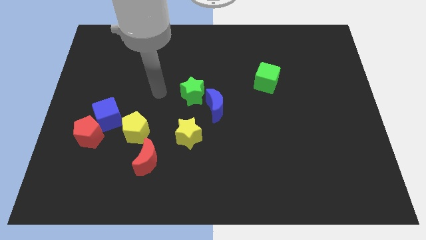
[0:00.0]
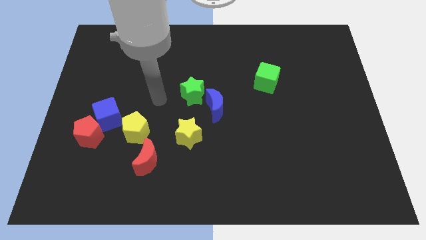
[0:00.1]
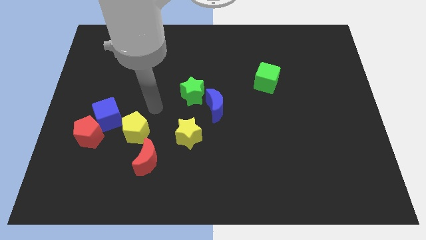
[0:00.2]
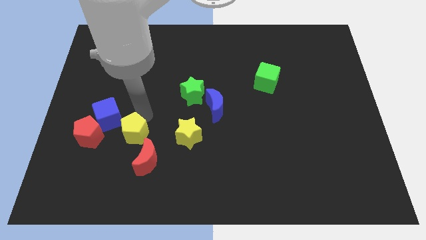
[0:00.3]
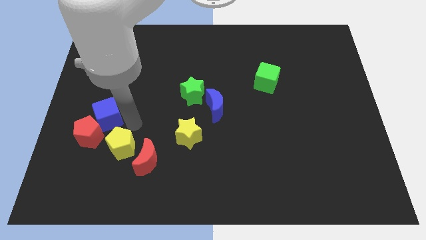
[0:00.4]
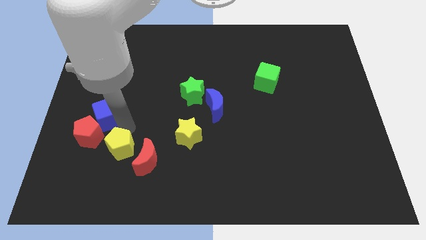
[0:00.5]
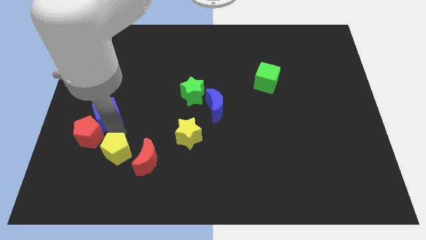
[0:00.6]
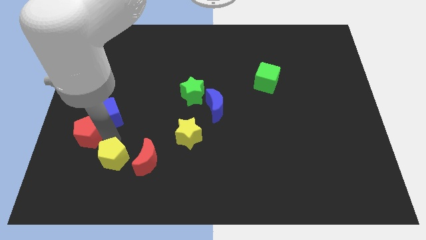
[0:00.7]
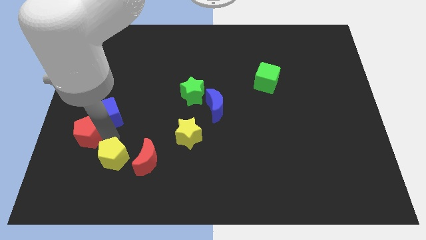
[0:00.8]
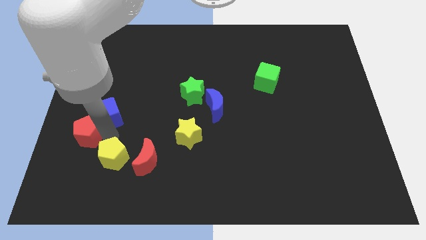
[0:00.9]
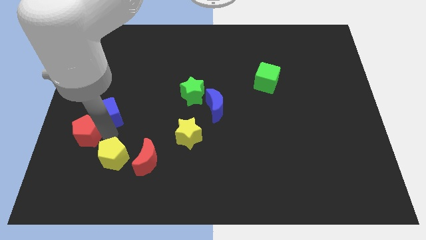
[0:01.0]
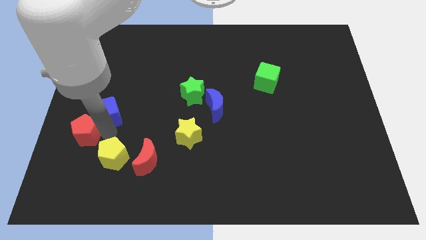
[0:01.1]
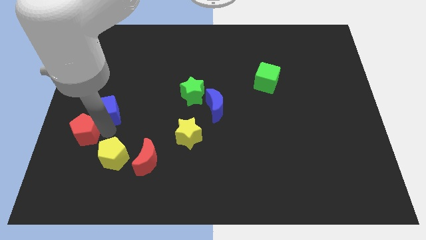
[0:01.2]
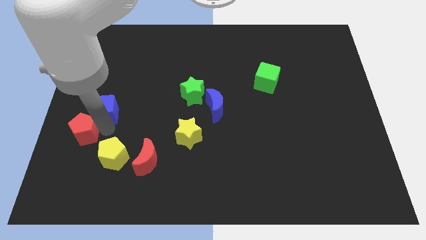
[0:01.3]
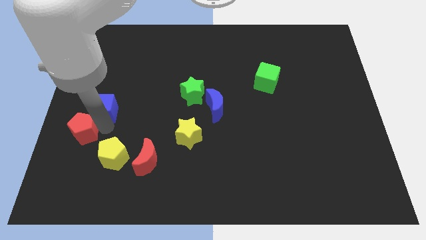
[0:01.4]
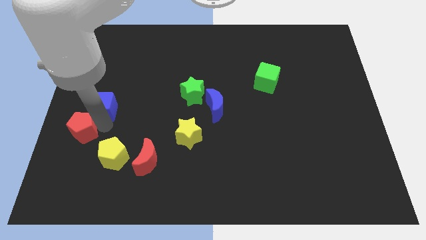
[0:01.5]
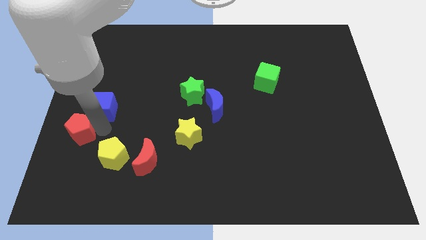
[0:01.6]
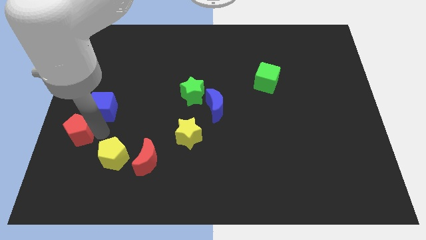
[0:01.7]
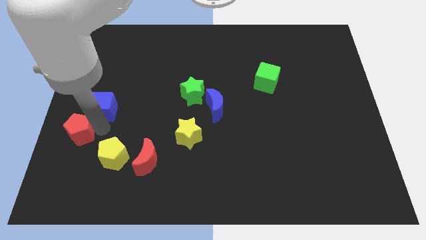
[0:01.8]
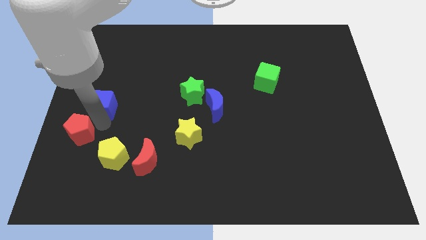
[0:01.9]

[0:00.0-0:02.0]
pull the blue cube apart from the red pentagon and yellow pentagon

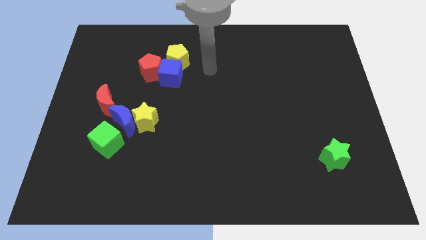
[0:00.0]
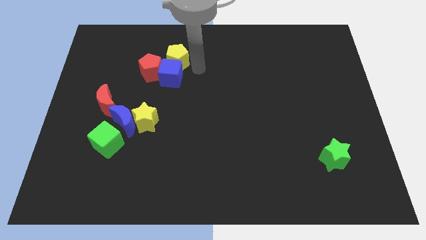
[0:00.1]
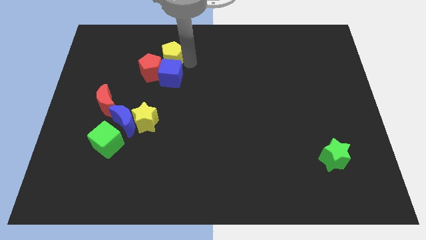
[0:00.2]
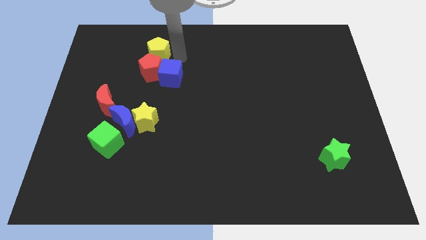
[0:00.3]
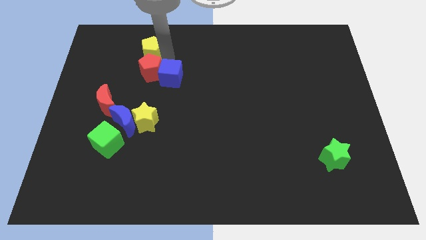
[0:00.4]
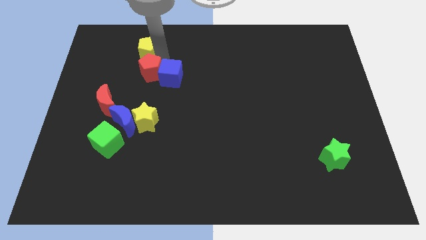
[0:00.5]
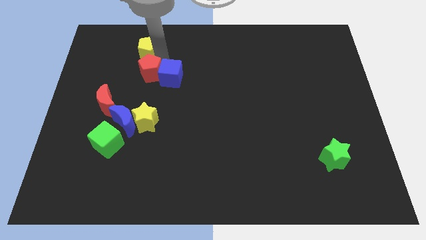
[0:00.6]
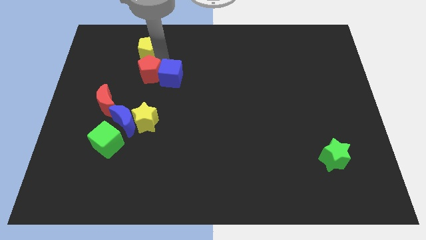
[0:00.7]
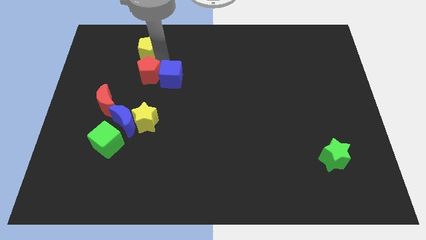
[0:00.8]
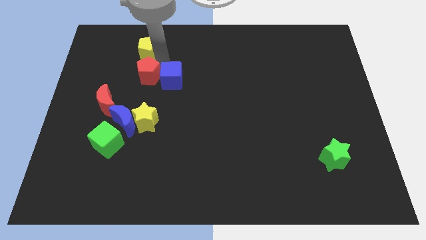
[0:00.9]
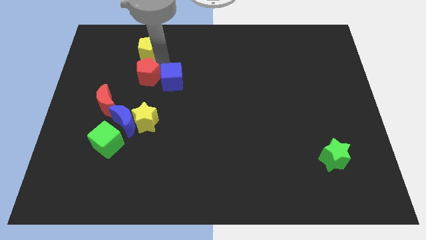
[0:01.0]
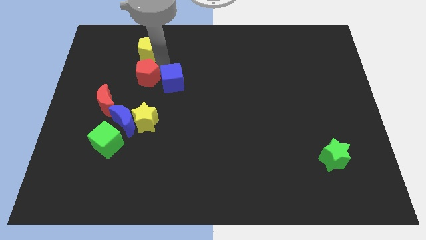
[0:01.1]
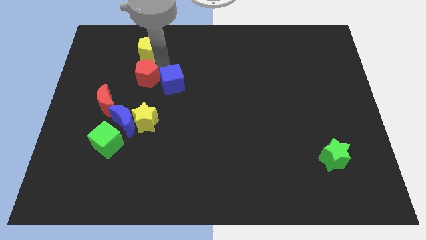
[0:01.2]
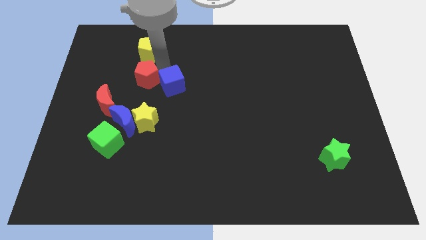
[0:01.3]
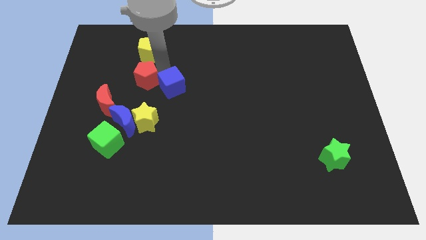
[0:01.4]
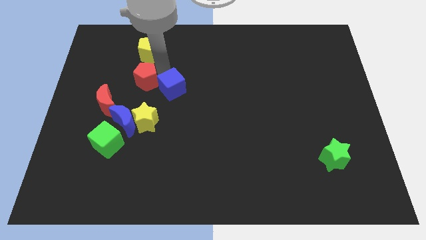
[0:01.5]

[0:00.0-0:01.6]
separate the blue cube from the yellow pentagon and red pentagon

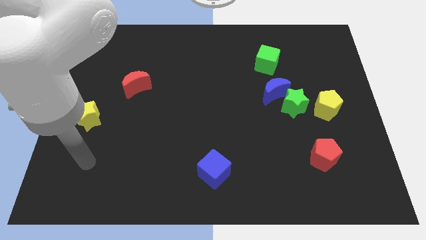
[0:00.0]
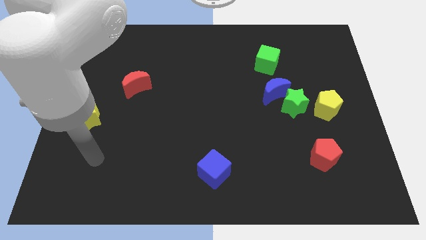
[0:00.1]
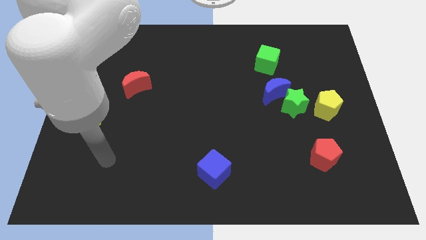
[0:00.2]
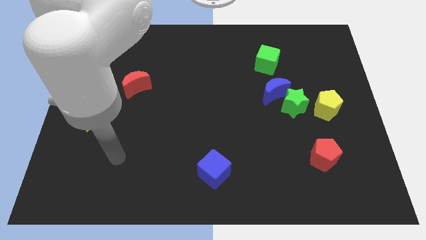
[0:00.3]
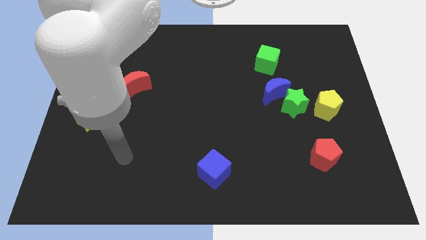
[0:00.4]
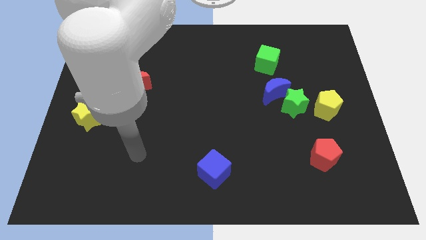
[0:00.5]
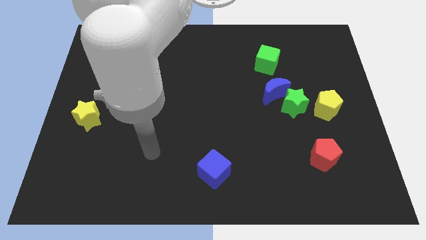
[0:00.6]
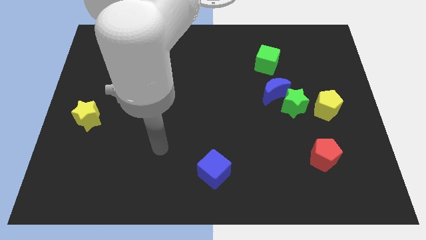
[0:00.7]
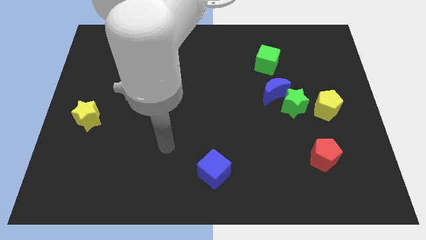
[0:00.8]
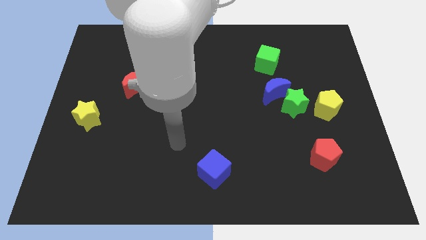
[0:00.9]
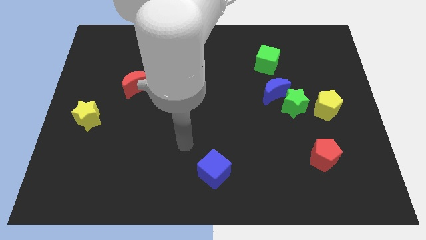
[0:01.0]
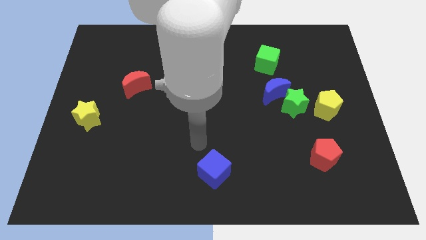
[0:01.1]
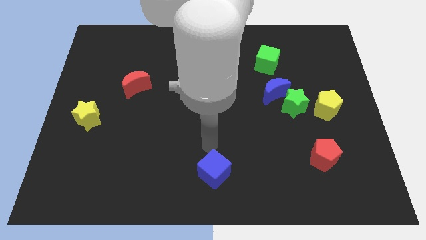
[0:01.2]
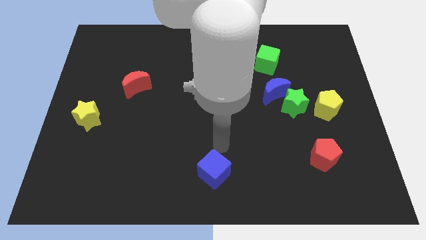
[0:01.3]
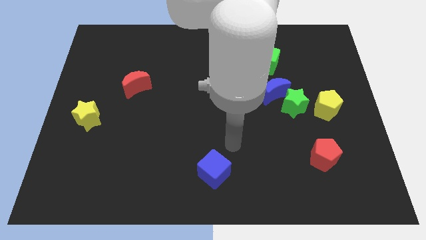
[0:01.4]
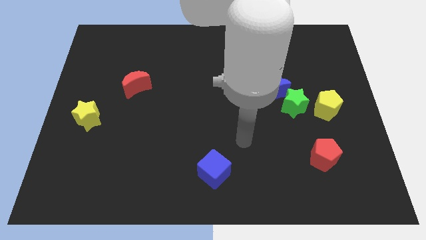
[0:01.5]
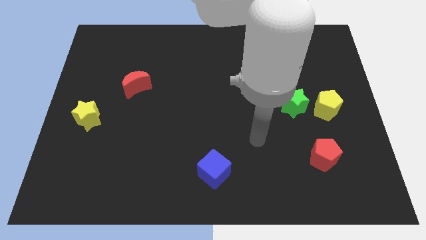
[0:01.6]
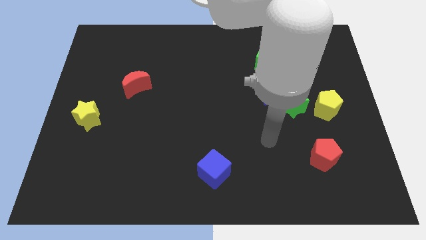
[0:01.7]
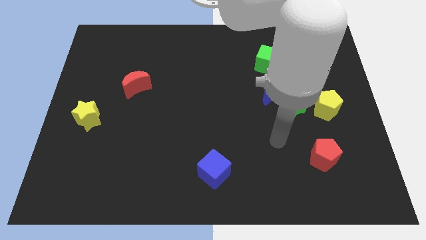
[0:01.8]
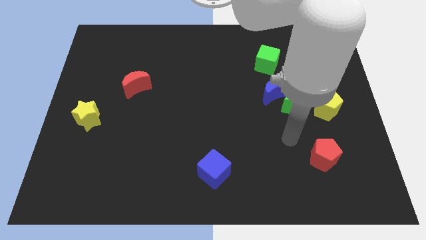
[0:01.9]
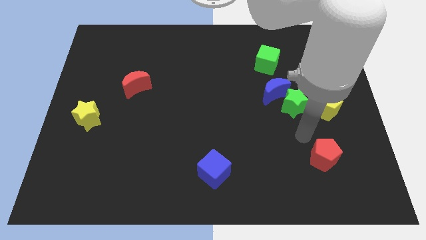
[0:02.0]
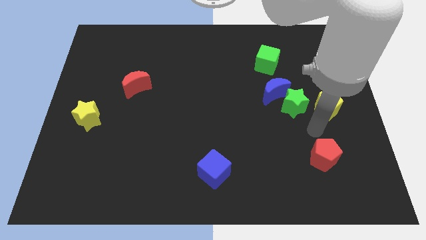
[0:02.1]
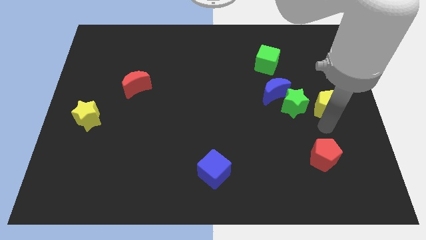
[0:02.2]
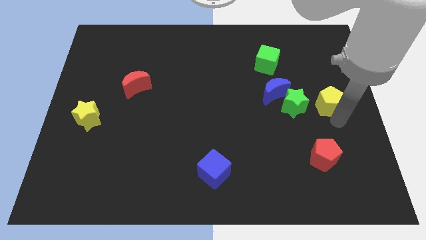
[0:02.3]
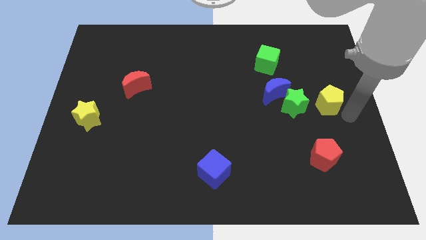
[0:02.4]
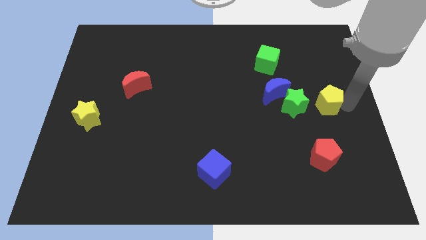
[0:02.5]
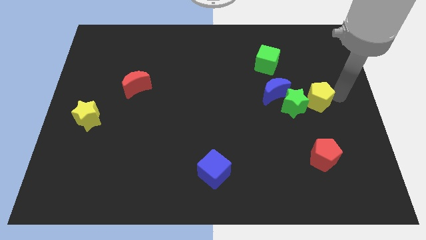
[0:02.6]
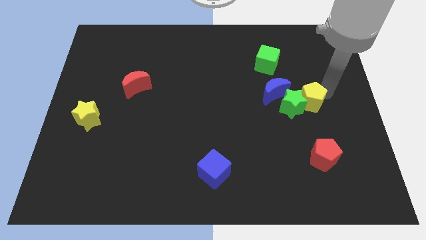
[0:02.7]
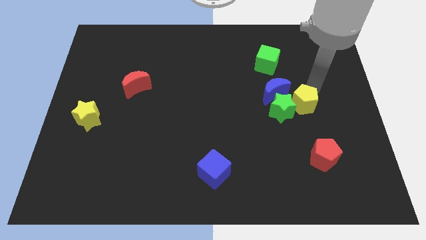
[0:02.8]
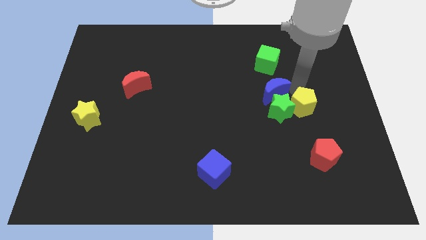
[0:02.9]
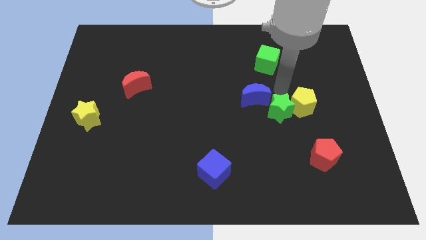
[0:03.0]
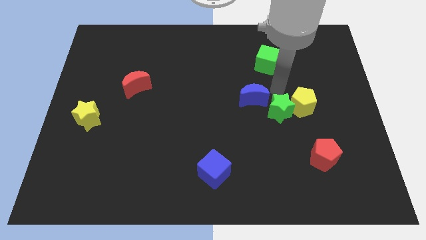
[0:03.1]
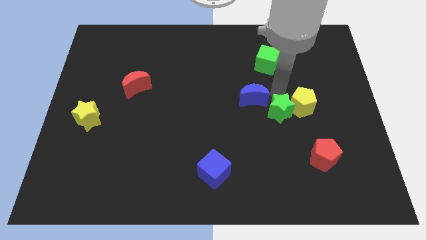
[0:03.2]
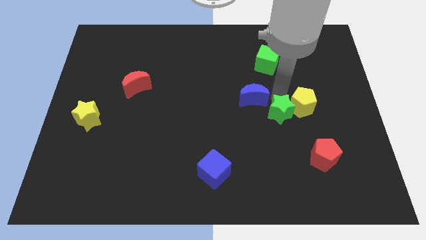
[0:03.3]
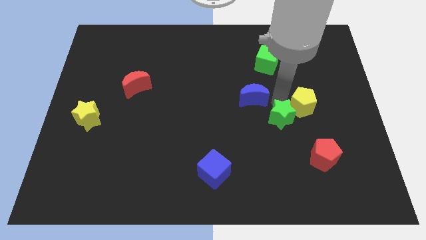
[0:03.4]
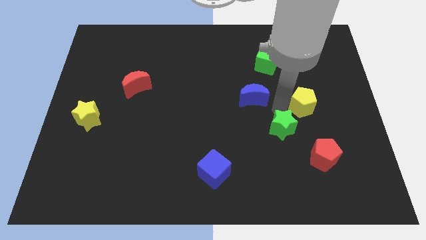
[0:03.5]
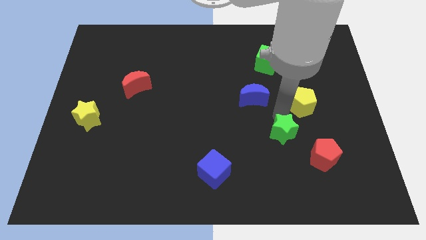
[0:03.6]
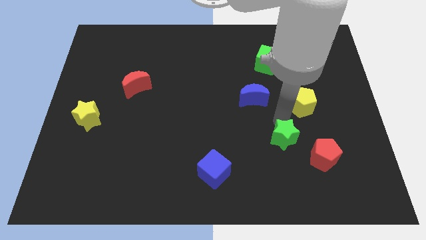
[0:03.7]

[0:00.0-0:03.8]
pull the green star apart from the blue moon and yellow pentagon

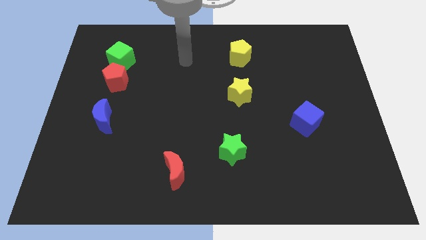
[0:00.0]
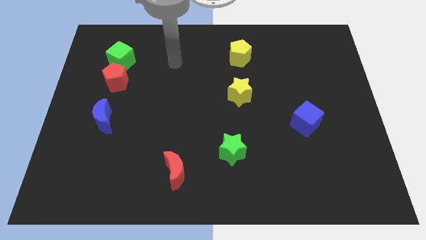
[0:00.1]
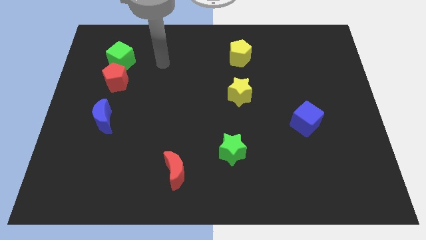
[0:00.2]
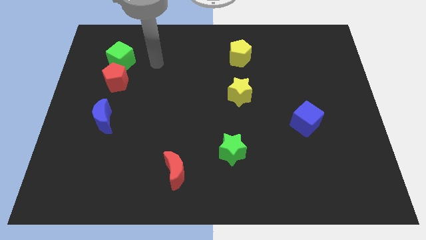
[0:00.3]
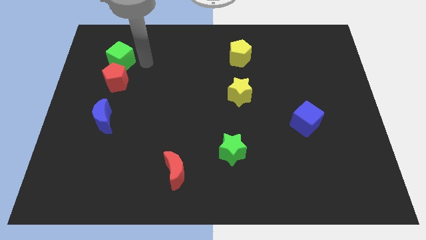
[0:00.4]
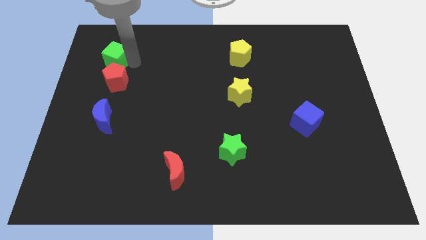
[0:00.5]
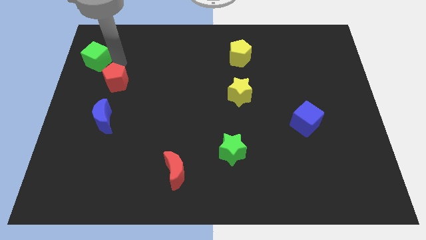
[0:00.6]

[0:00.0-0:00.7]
separate the red pentagon from the green cube

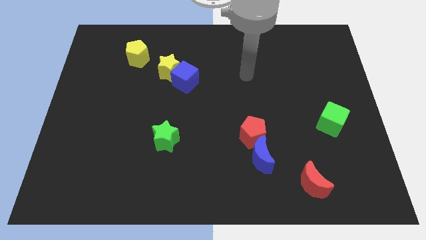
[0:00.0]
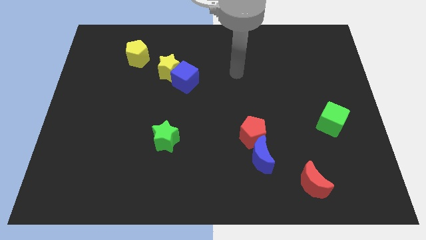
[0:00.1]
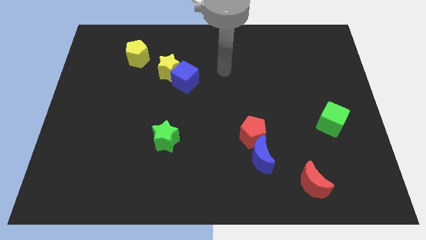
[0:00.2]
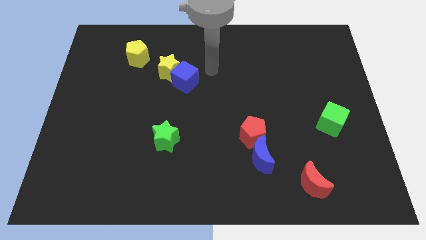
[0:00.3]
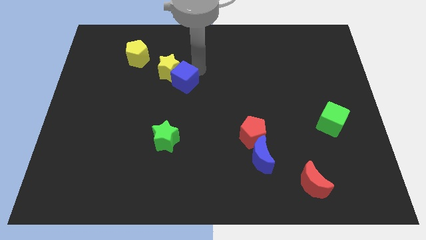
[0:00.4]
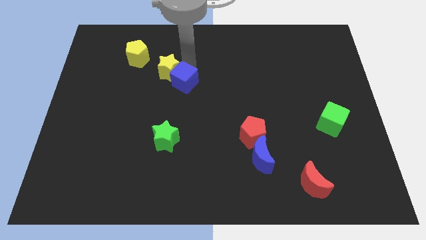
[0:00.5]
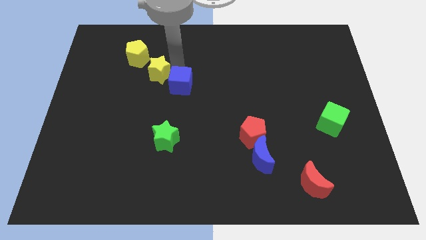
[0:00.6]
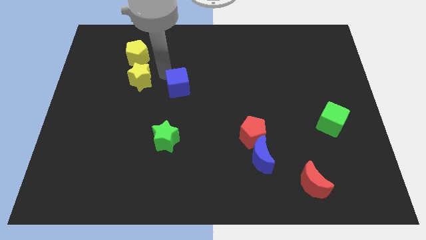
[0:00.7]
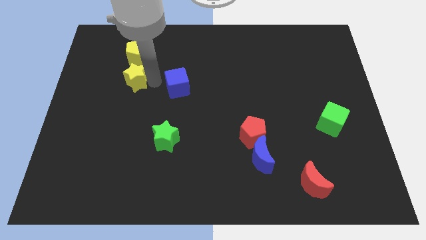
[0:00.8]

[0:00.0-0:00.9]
separate the blue cube from the yellow star

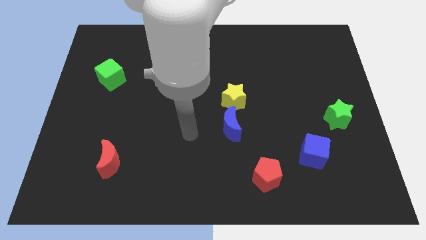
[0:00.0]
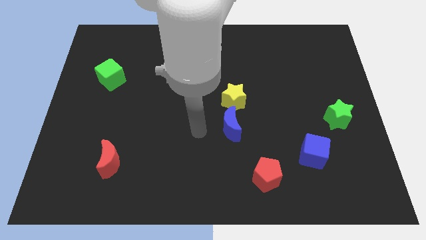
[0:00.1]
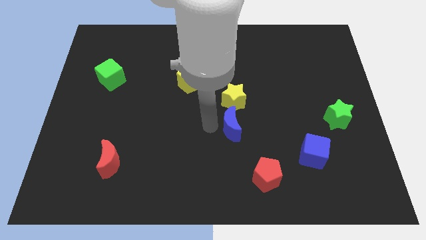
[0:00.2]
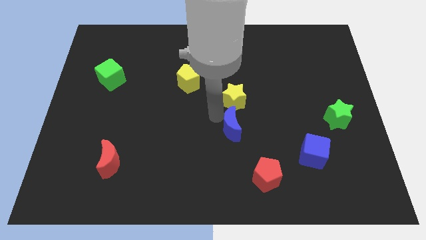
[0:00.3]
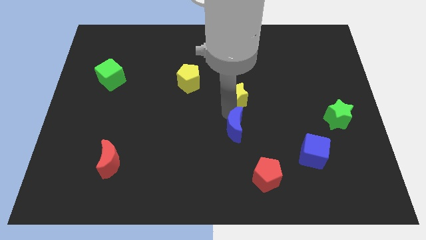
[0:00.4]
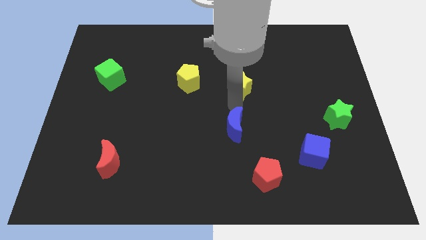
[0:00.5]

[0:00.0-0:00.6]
separate the blue moon from the yellow star
